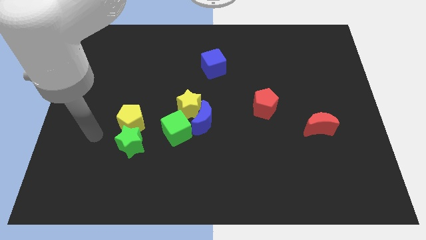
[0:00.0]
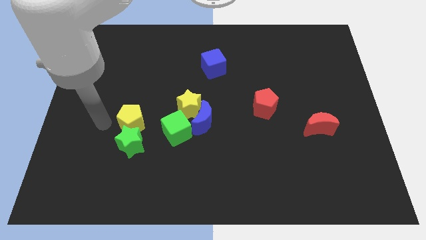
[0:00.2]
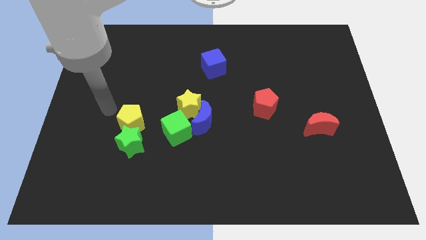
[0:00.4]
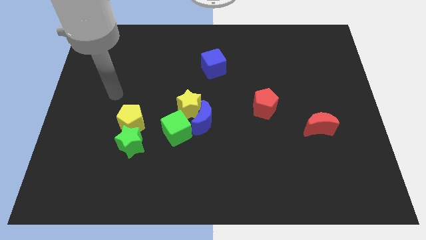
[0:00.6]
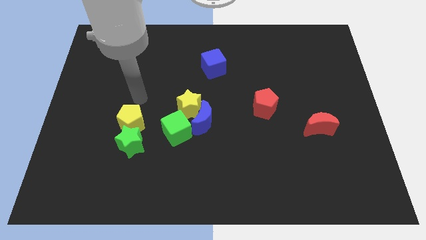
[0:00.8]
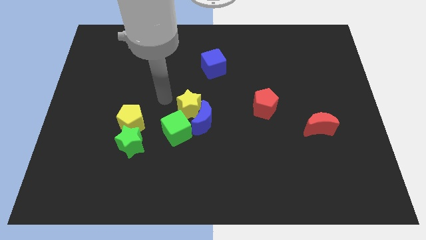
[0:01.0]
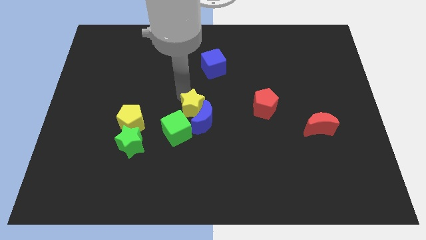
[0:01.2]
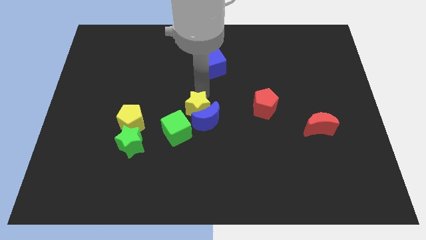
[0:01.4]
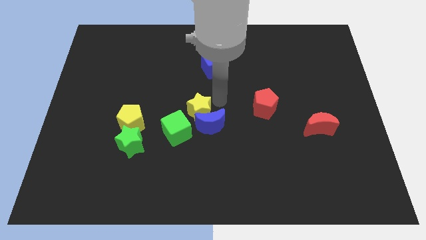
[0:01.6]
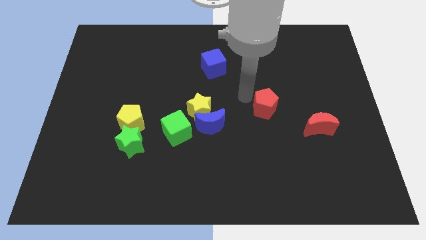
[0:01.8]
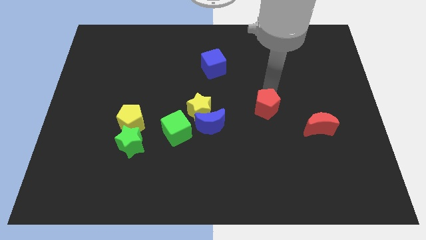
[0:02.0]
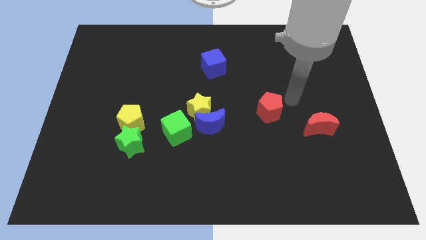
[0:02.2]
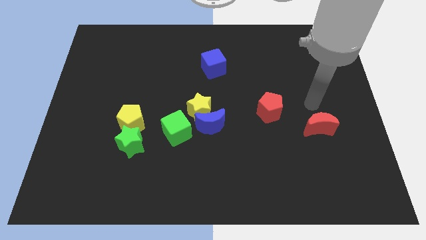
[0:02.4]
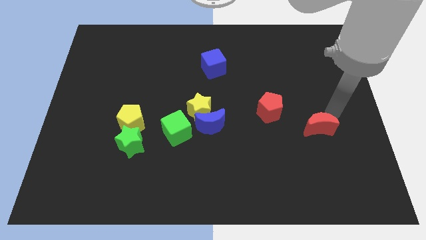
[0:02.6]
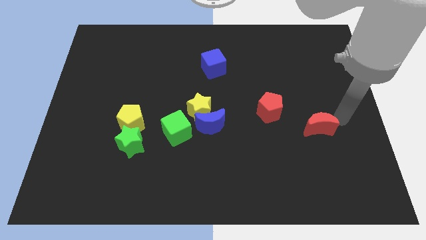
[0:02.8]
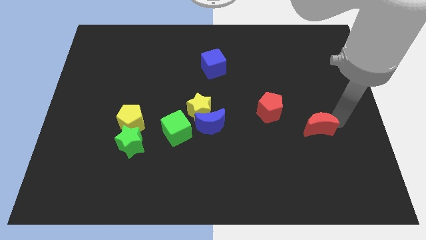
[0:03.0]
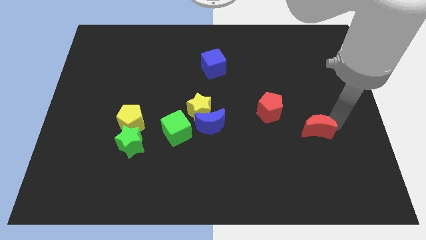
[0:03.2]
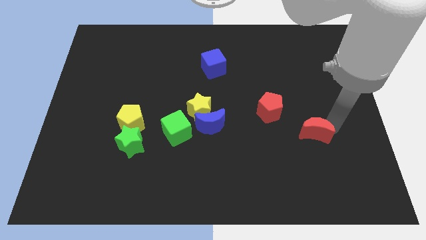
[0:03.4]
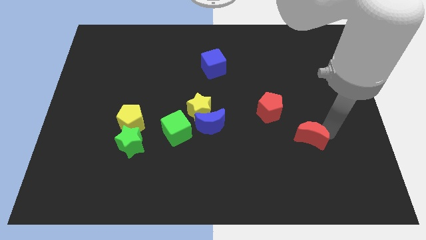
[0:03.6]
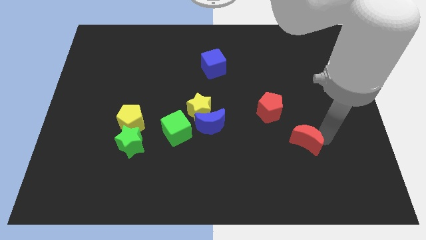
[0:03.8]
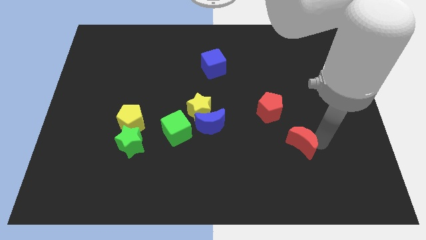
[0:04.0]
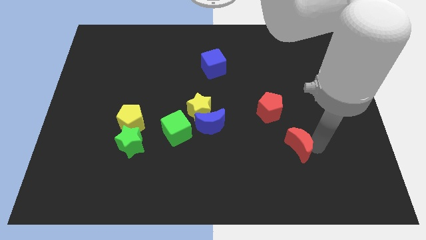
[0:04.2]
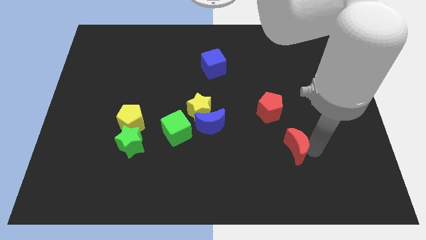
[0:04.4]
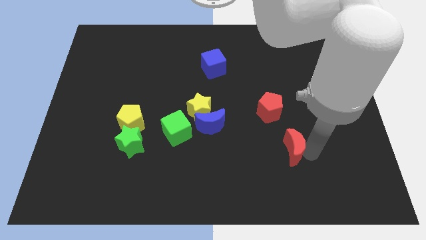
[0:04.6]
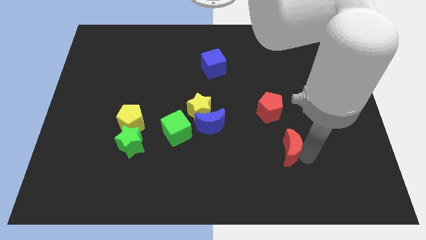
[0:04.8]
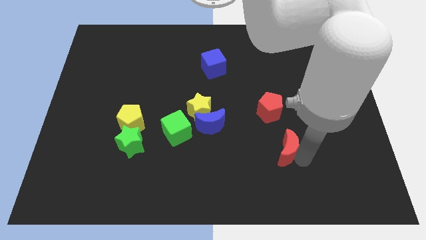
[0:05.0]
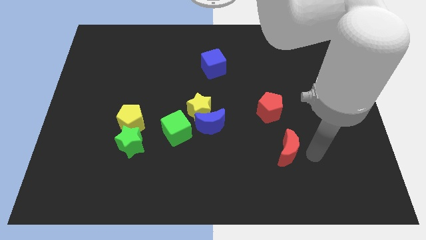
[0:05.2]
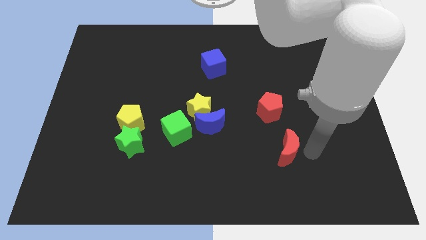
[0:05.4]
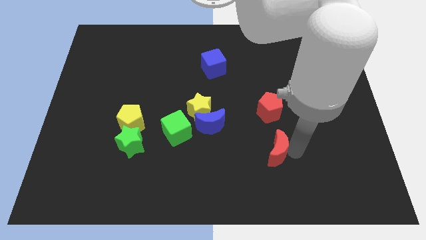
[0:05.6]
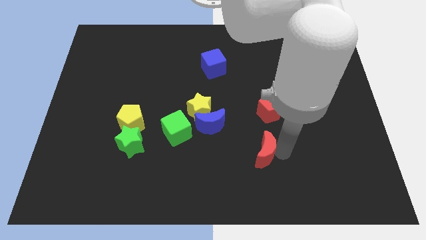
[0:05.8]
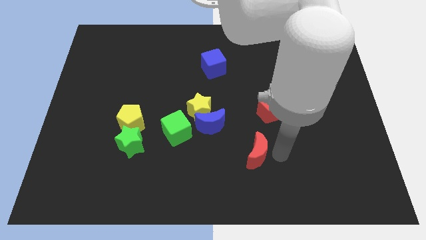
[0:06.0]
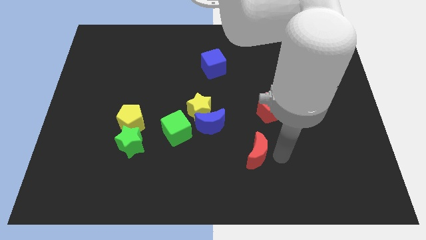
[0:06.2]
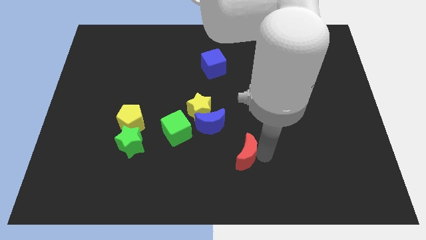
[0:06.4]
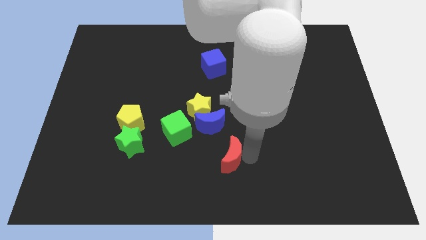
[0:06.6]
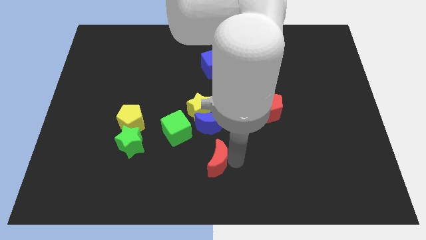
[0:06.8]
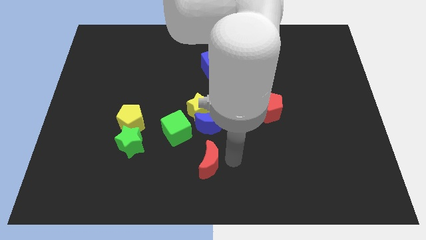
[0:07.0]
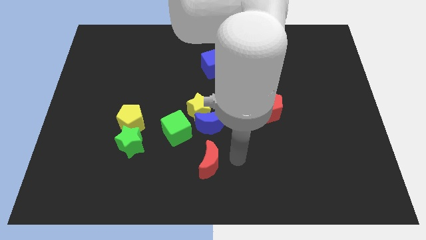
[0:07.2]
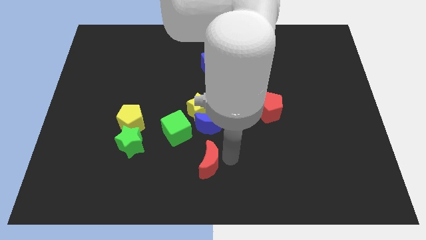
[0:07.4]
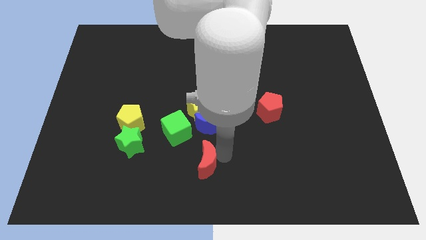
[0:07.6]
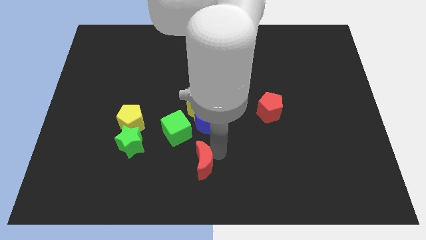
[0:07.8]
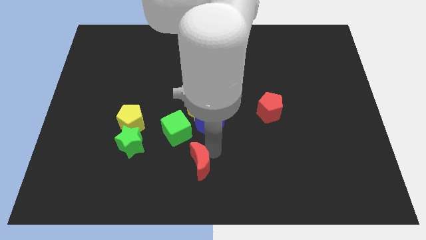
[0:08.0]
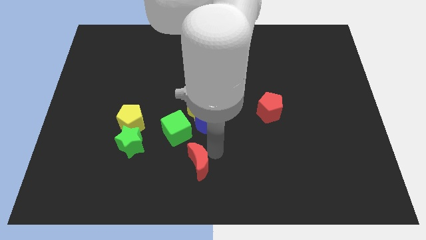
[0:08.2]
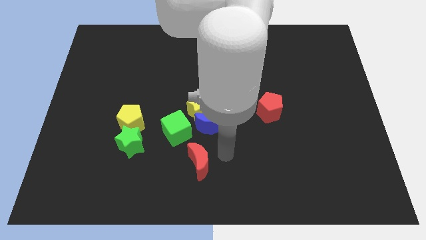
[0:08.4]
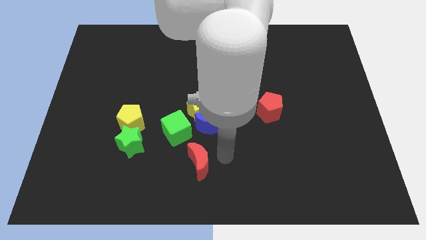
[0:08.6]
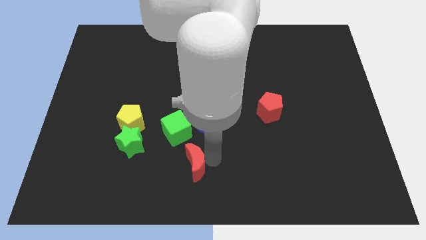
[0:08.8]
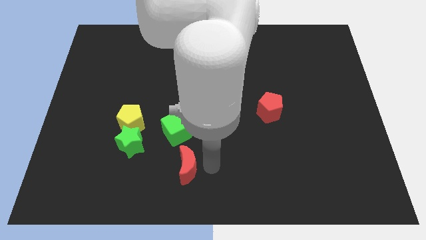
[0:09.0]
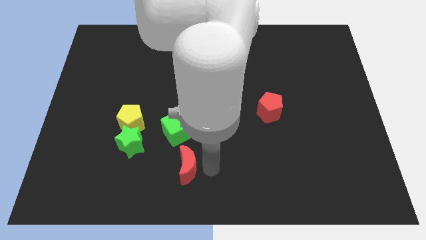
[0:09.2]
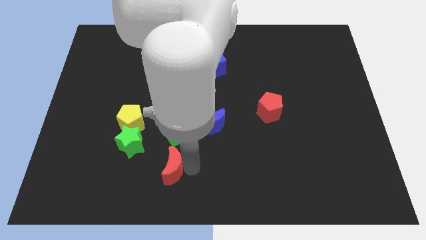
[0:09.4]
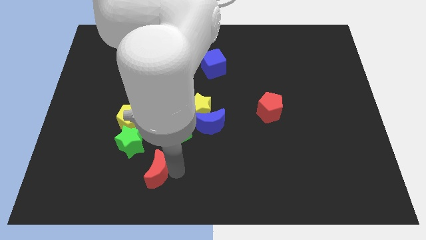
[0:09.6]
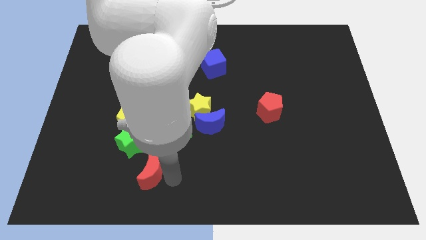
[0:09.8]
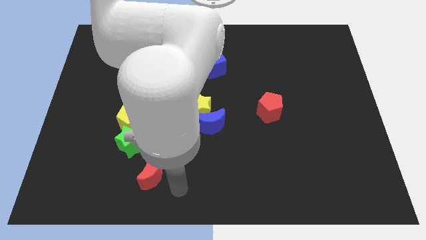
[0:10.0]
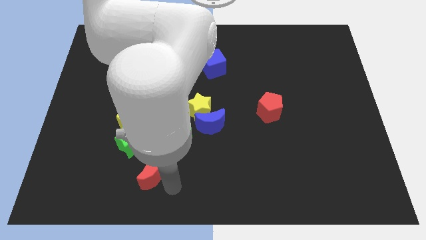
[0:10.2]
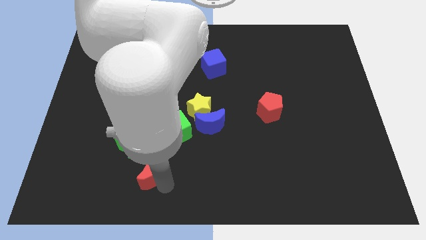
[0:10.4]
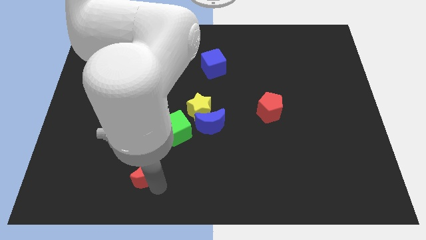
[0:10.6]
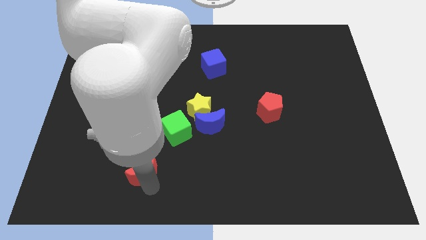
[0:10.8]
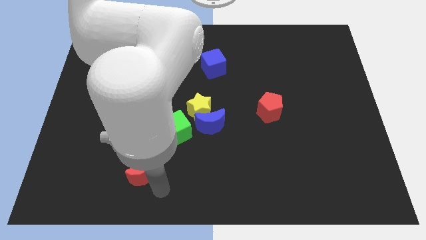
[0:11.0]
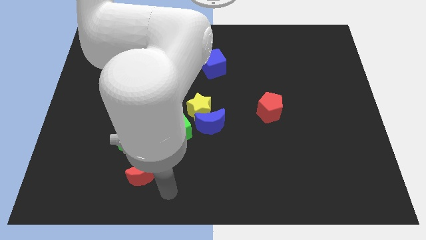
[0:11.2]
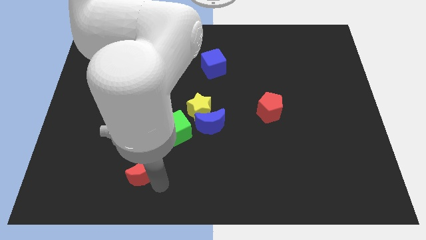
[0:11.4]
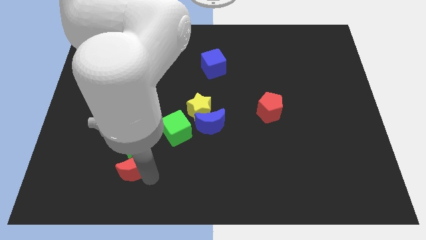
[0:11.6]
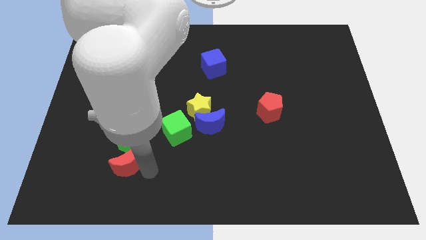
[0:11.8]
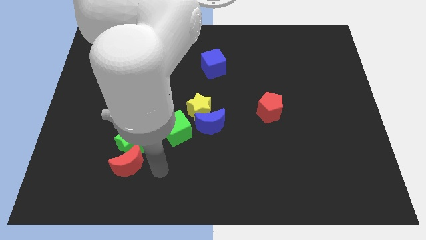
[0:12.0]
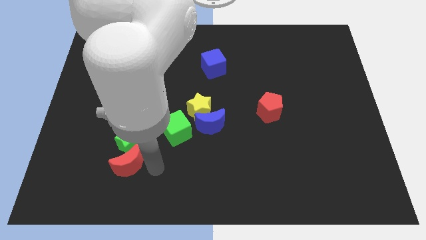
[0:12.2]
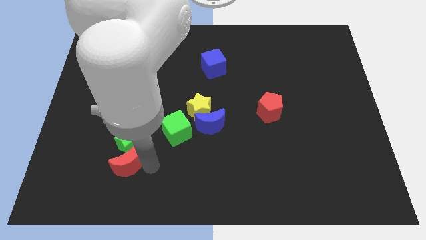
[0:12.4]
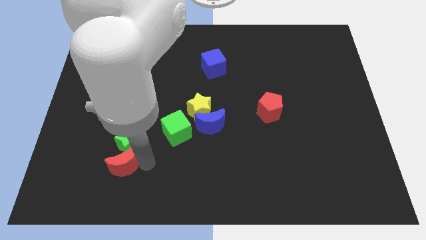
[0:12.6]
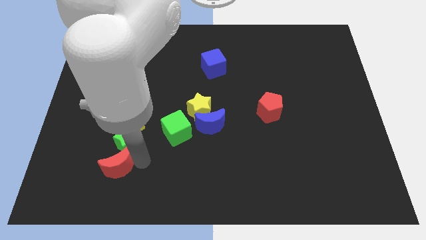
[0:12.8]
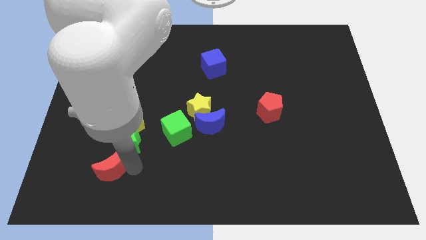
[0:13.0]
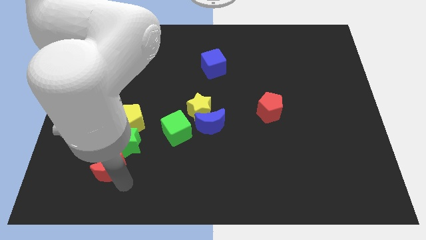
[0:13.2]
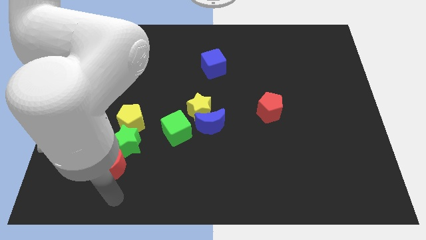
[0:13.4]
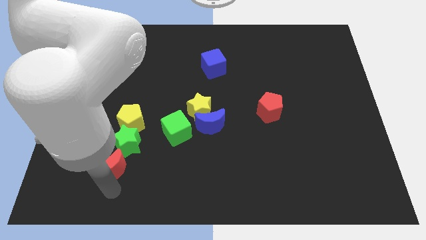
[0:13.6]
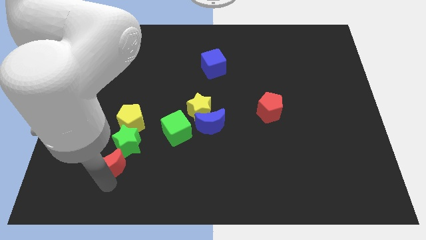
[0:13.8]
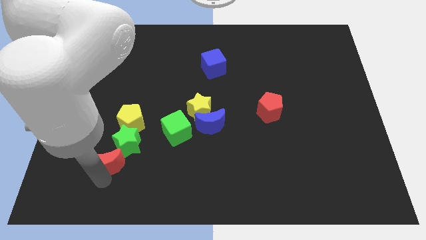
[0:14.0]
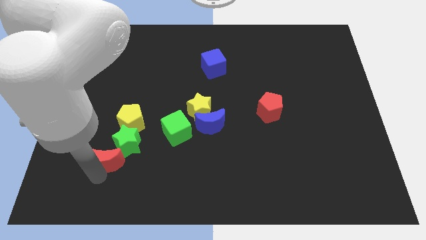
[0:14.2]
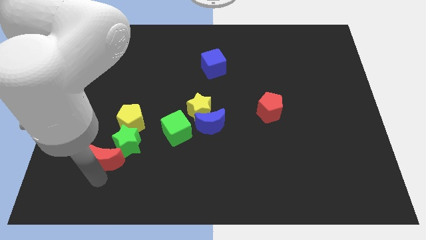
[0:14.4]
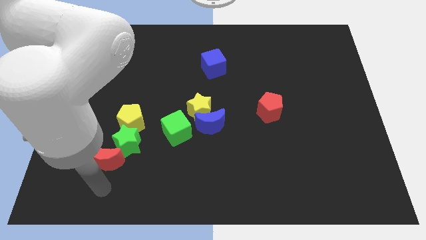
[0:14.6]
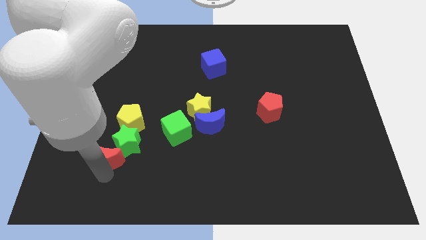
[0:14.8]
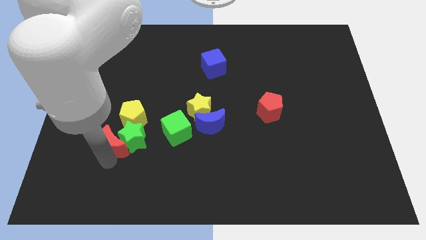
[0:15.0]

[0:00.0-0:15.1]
move the red moon to the left of the green cube
